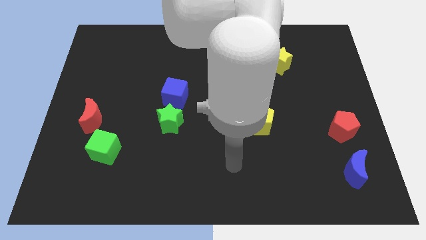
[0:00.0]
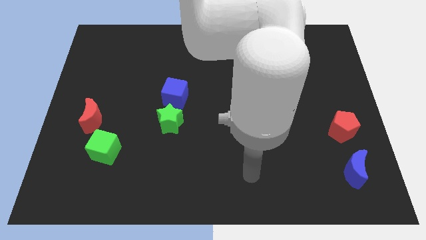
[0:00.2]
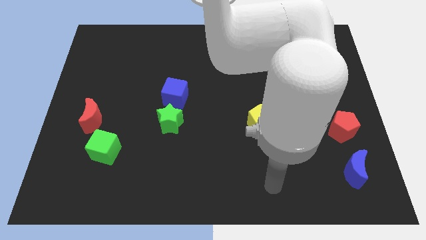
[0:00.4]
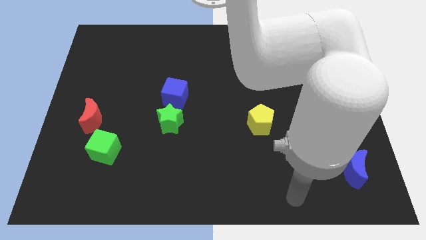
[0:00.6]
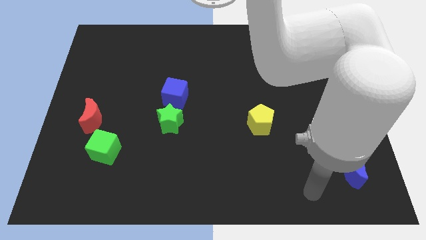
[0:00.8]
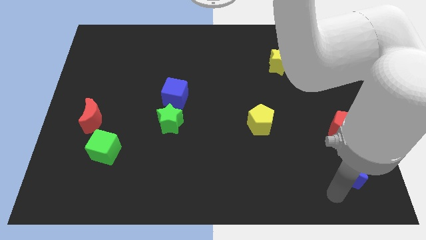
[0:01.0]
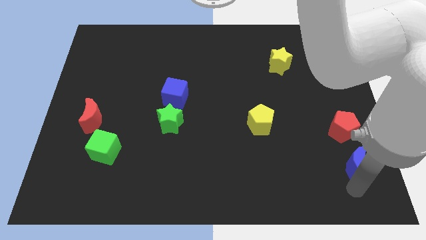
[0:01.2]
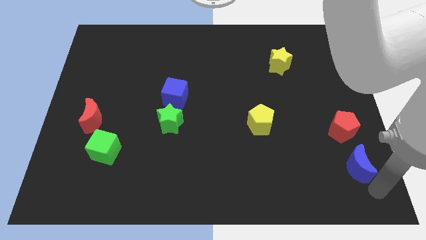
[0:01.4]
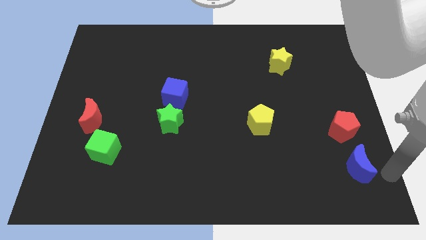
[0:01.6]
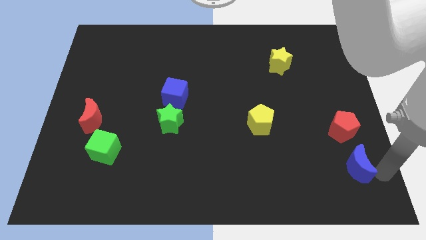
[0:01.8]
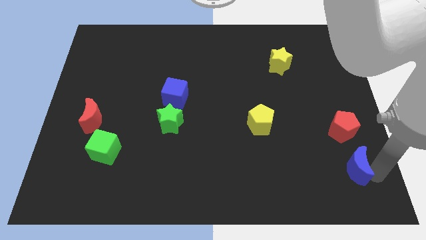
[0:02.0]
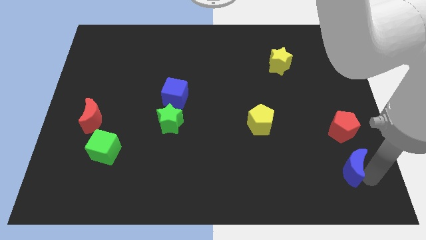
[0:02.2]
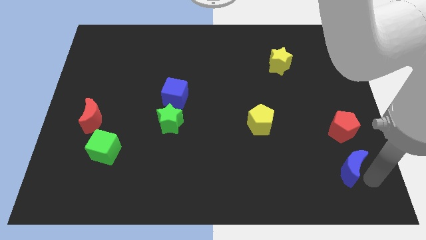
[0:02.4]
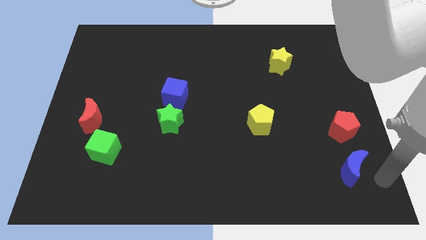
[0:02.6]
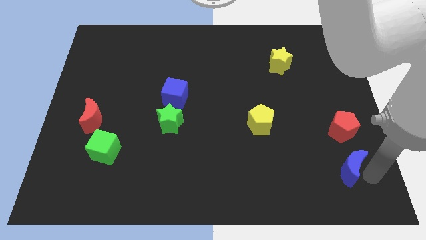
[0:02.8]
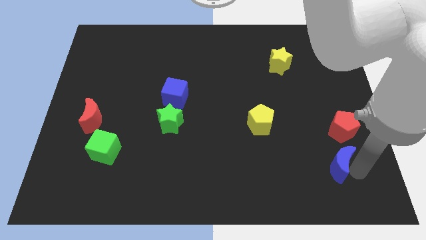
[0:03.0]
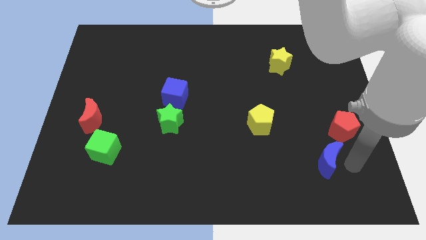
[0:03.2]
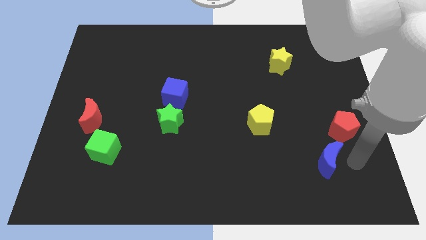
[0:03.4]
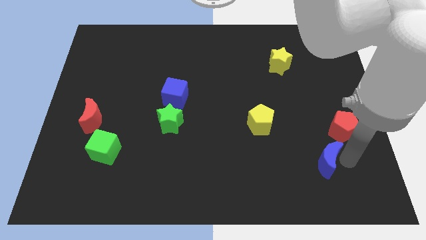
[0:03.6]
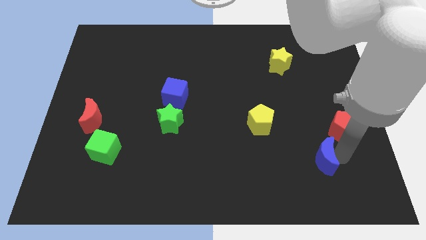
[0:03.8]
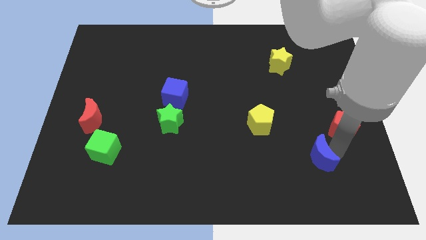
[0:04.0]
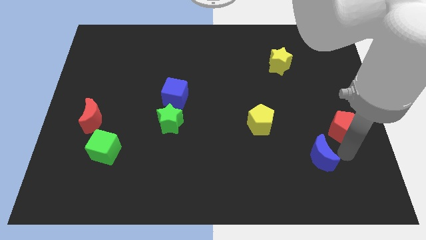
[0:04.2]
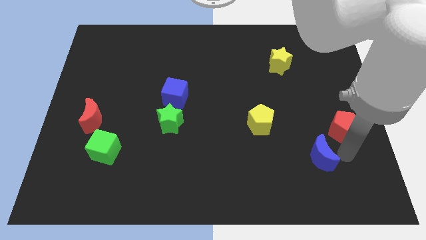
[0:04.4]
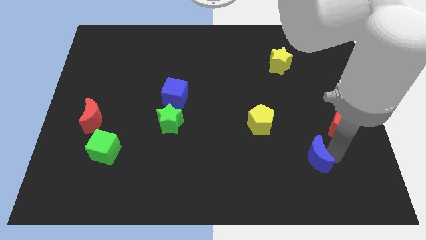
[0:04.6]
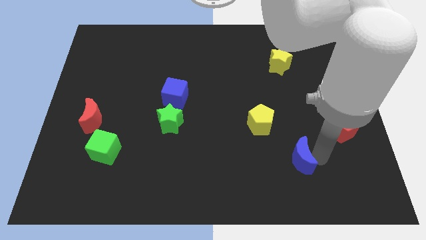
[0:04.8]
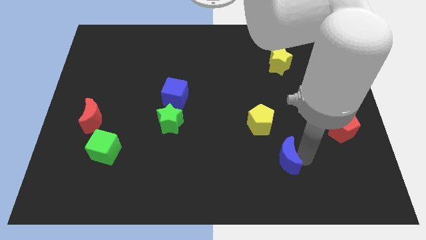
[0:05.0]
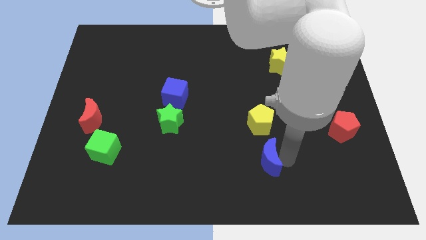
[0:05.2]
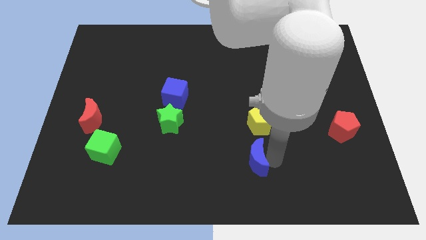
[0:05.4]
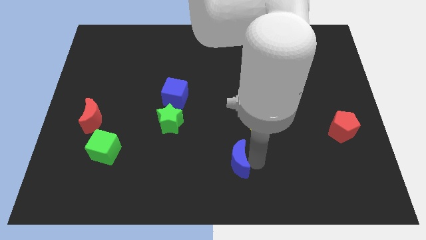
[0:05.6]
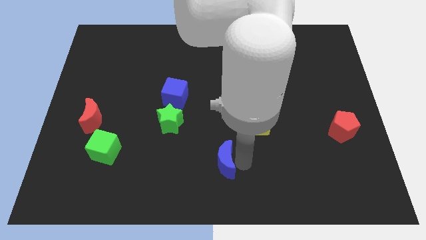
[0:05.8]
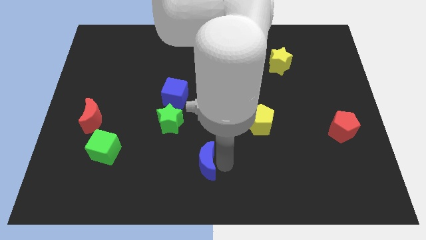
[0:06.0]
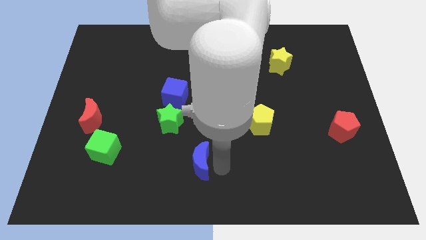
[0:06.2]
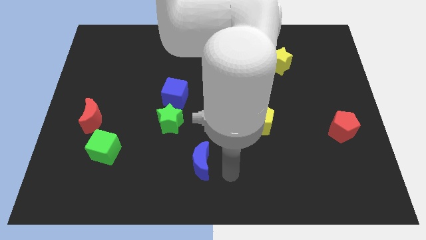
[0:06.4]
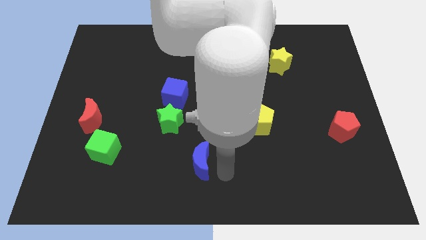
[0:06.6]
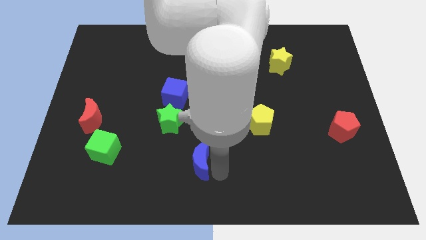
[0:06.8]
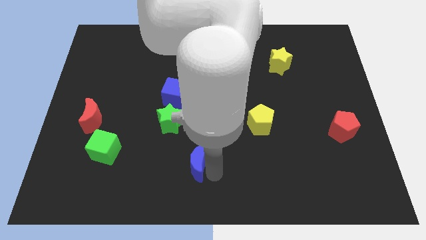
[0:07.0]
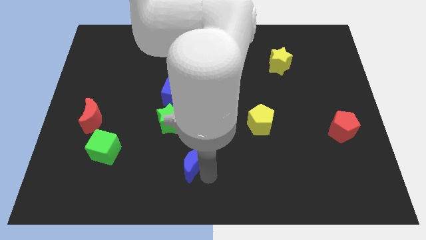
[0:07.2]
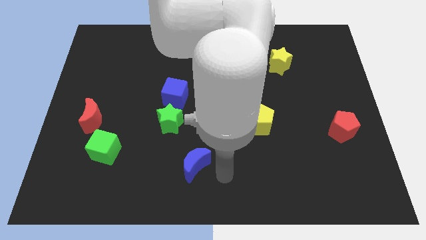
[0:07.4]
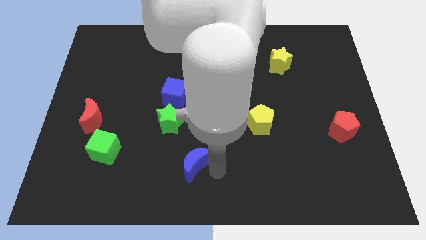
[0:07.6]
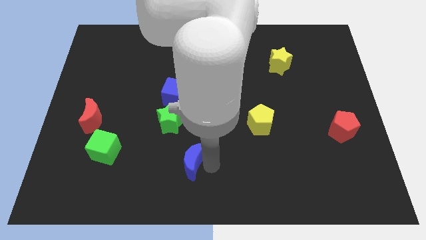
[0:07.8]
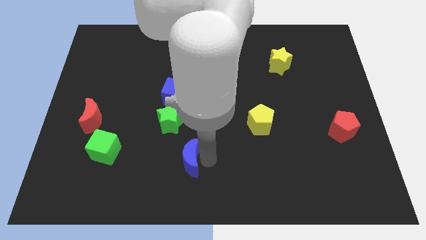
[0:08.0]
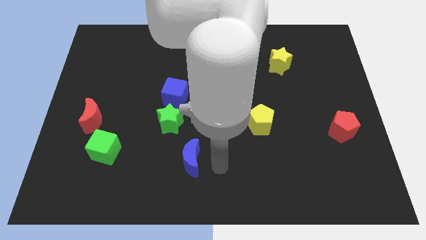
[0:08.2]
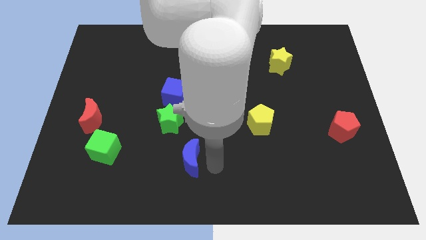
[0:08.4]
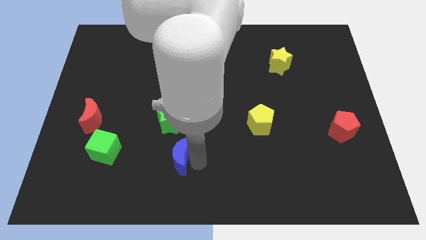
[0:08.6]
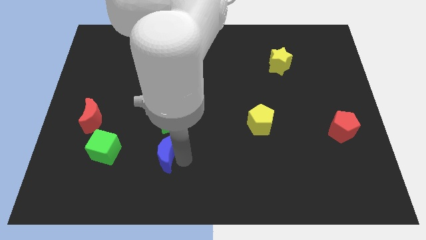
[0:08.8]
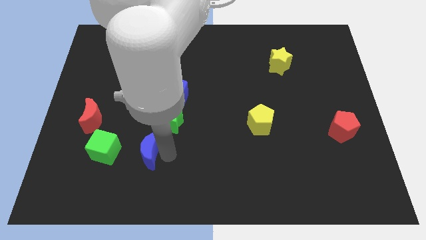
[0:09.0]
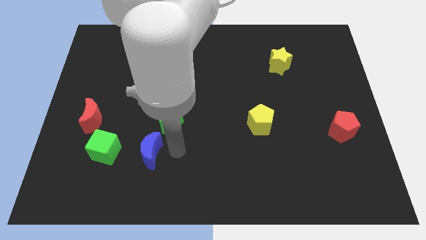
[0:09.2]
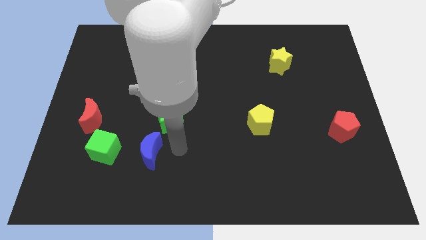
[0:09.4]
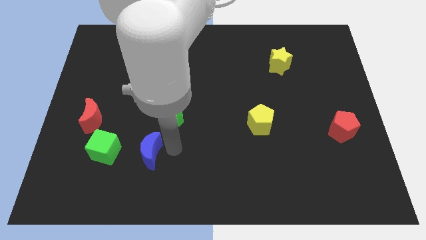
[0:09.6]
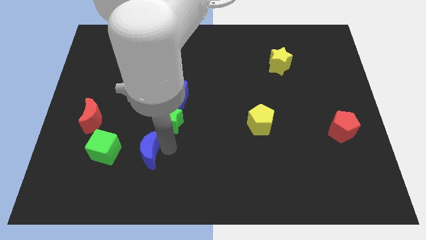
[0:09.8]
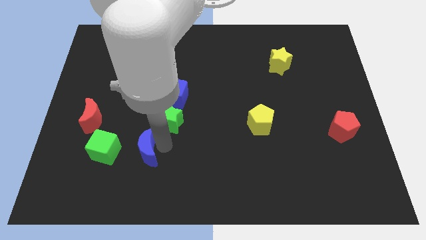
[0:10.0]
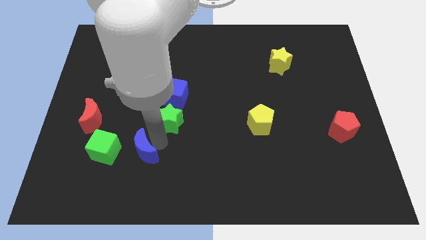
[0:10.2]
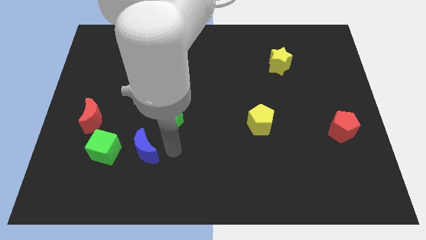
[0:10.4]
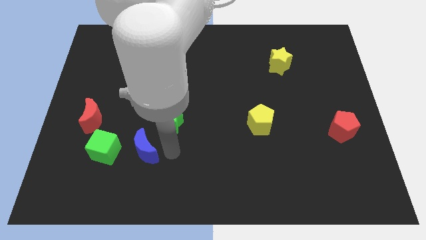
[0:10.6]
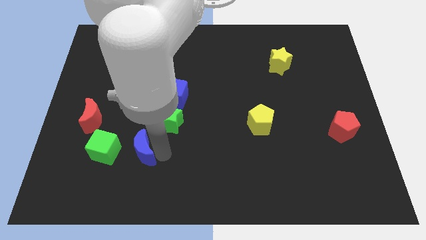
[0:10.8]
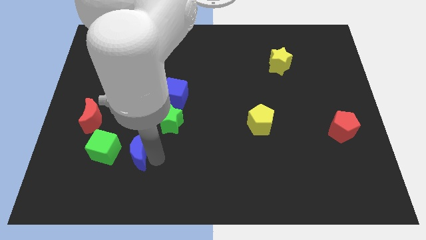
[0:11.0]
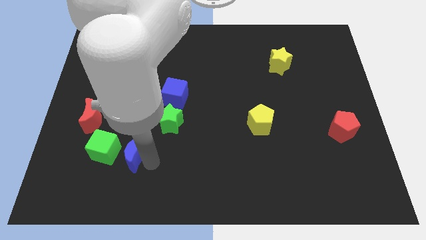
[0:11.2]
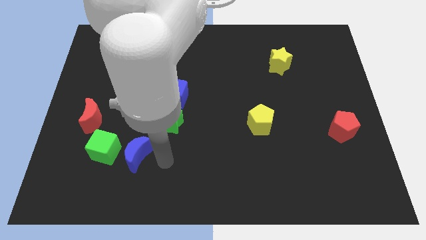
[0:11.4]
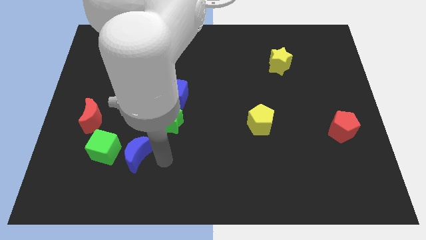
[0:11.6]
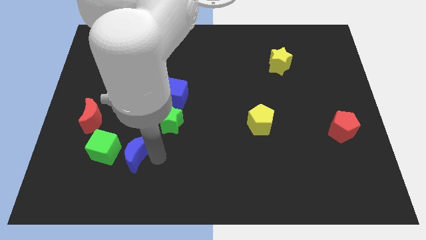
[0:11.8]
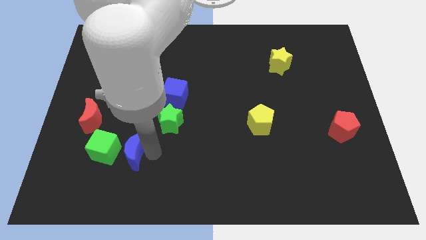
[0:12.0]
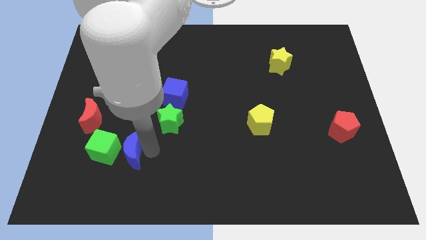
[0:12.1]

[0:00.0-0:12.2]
slide the blue moon towards the green cube
